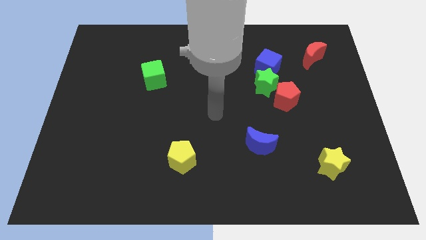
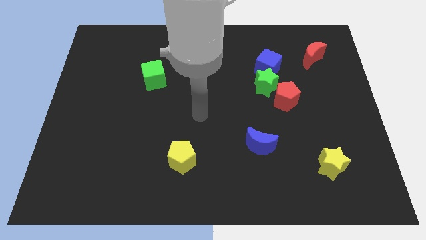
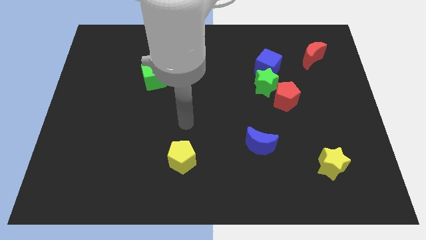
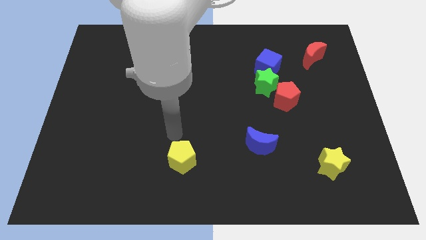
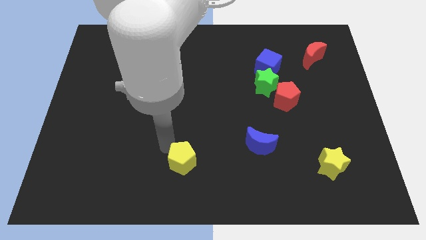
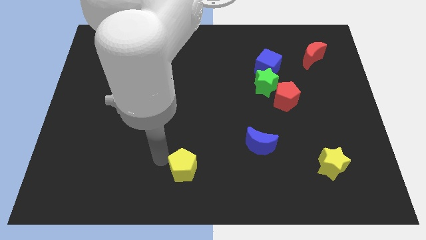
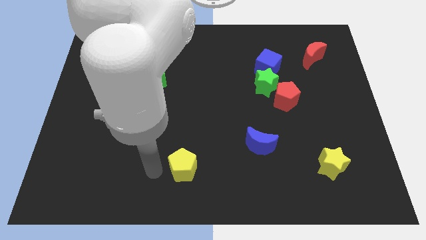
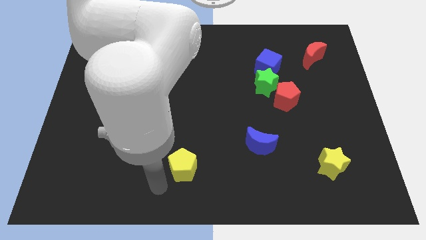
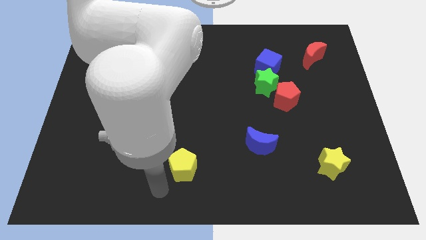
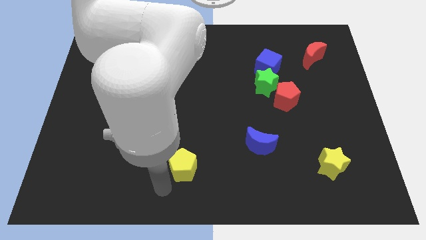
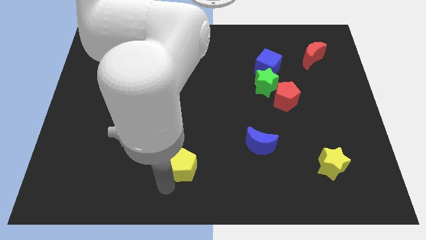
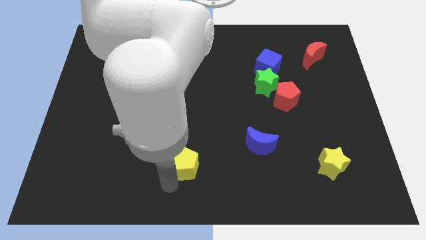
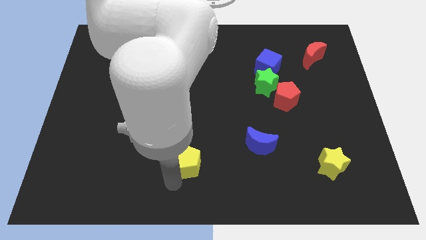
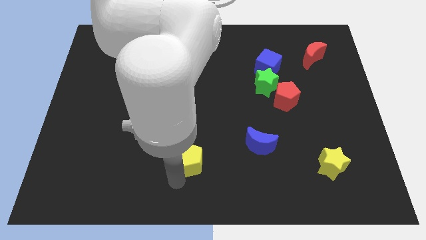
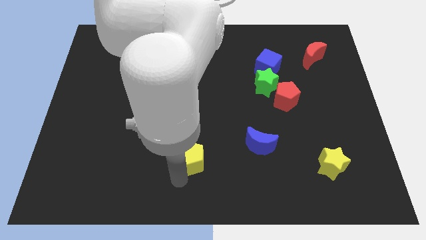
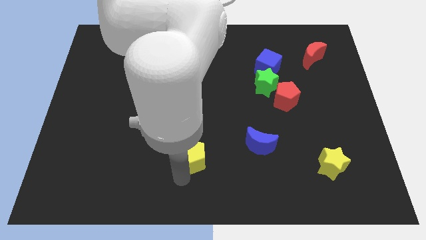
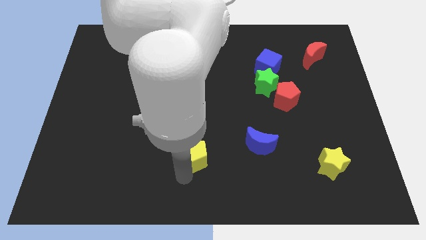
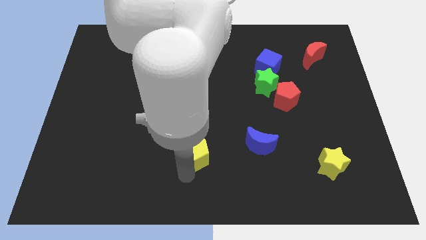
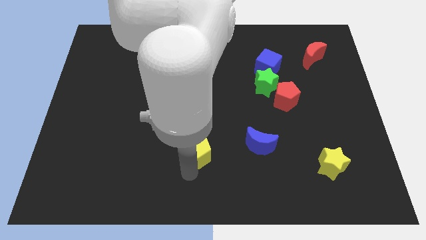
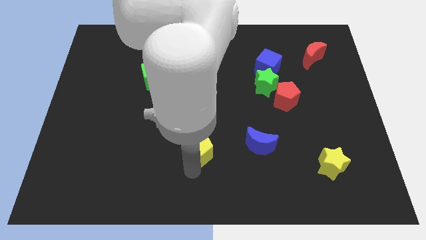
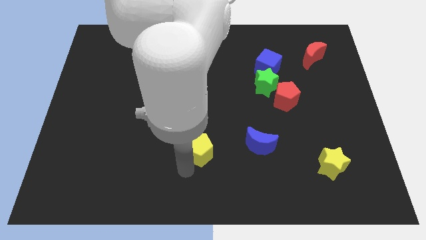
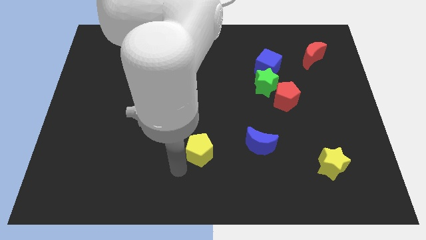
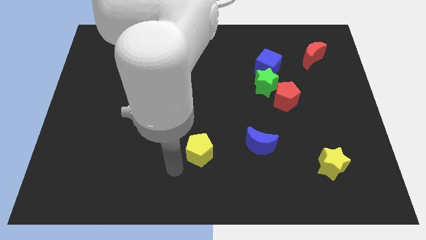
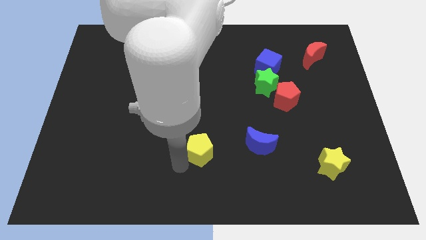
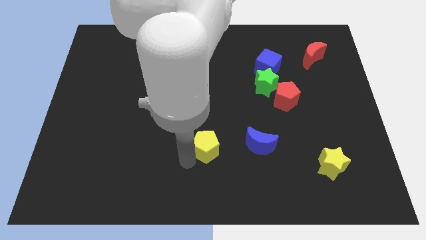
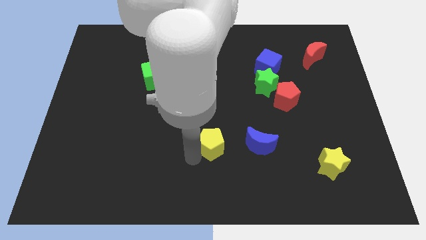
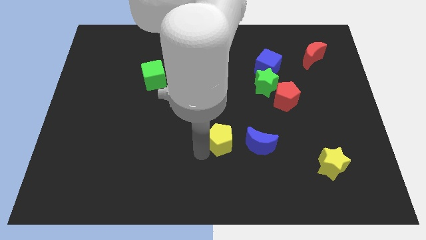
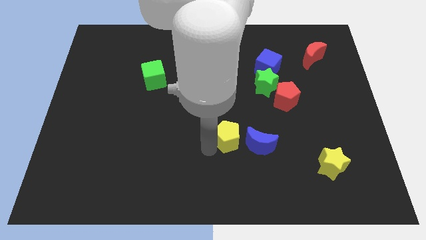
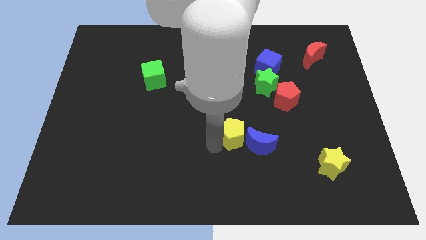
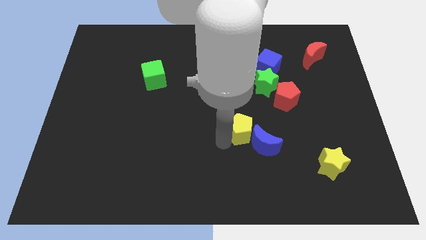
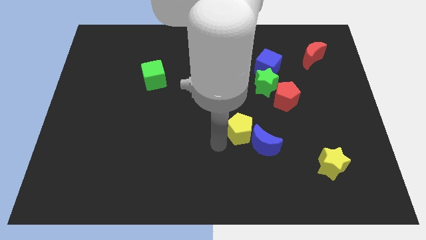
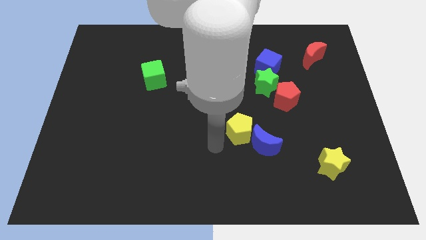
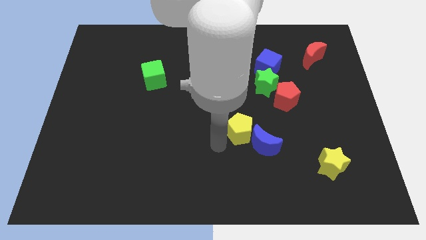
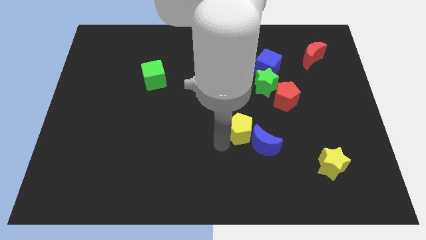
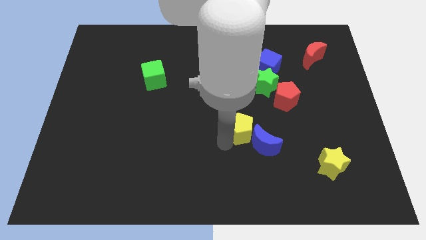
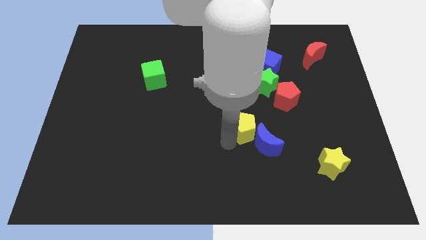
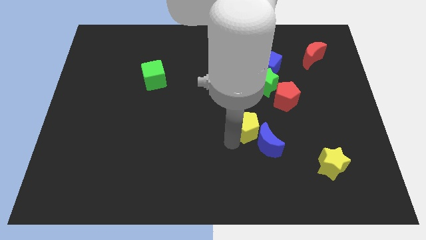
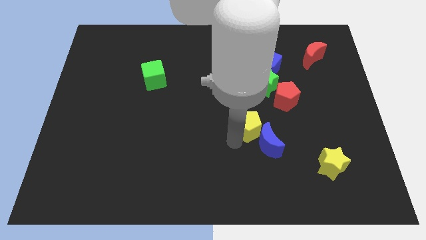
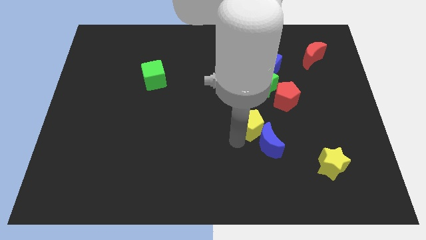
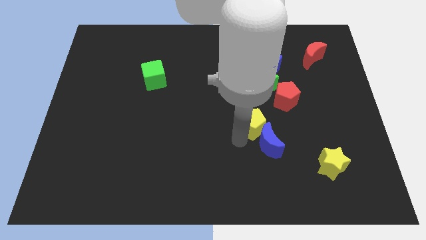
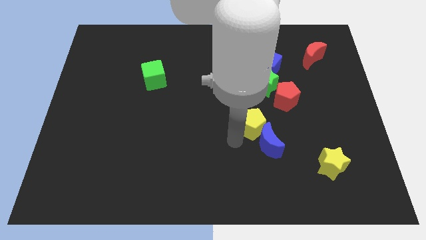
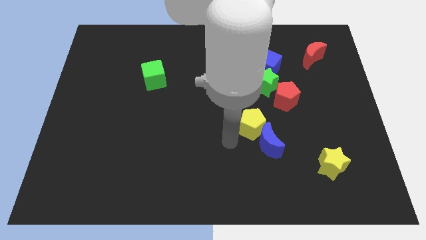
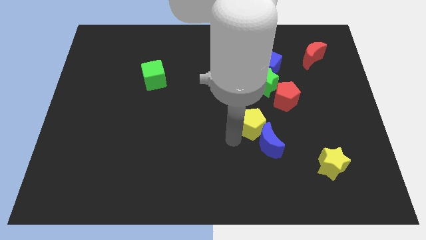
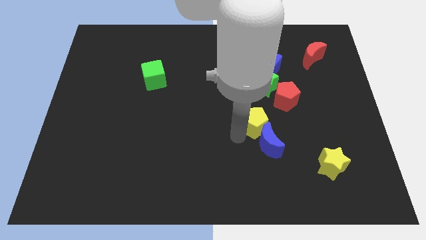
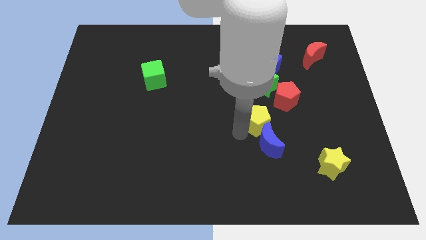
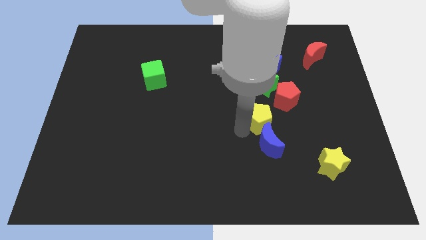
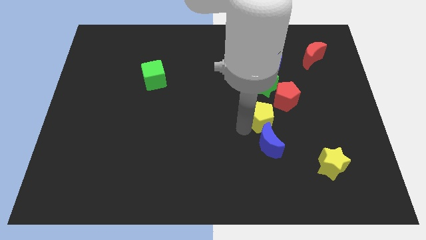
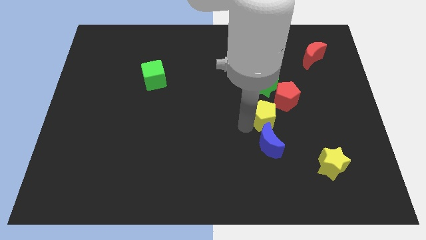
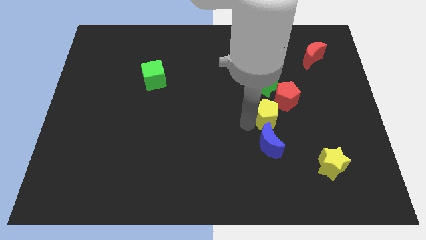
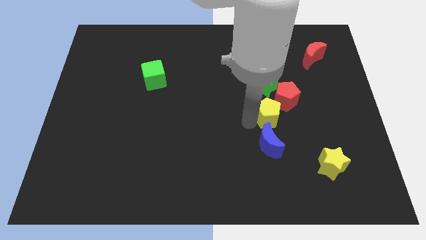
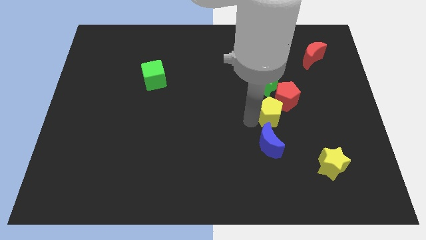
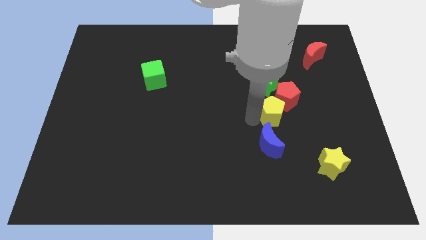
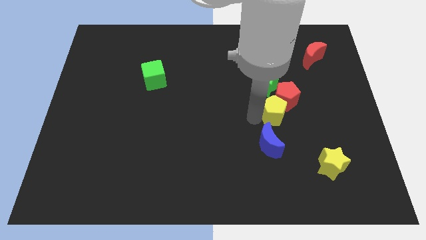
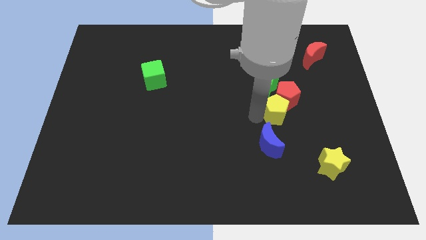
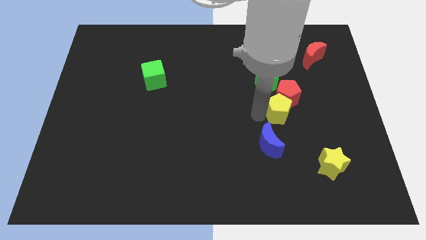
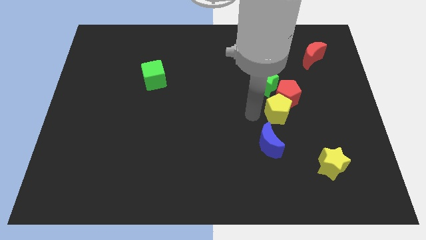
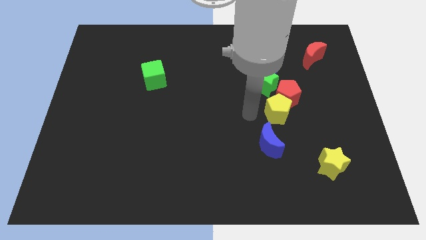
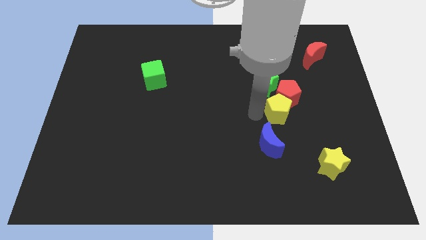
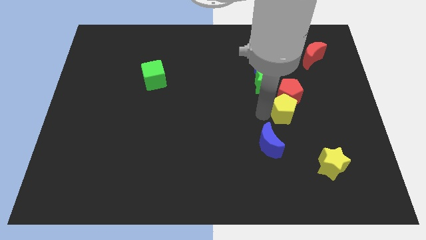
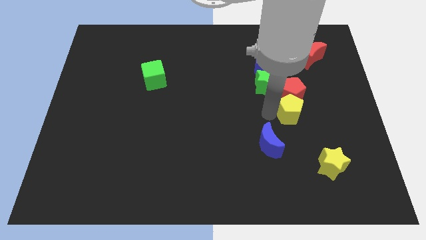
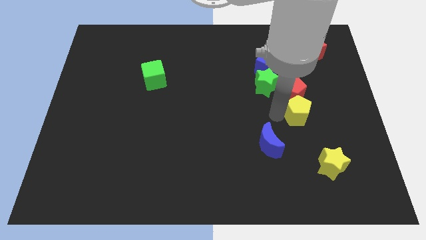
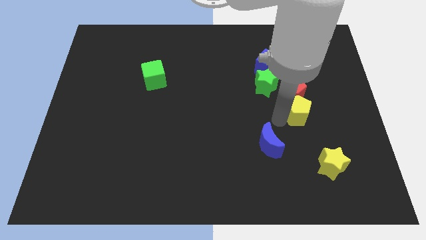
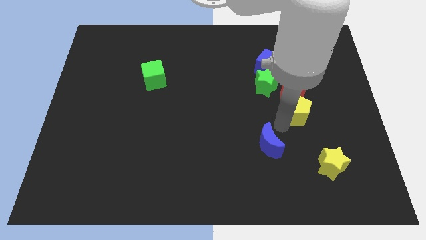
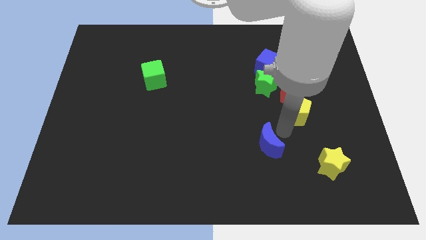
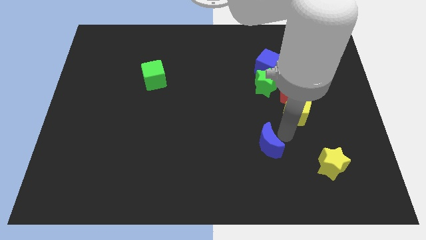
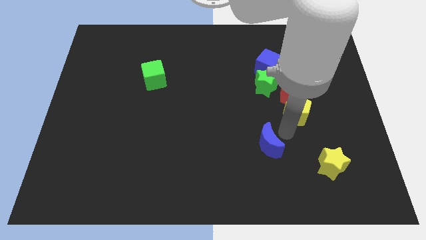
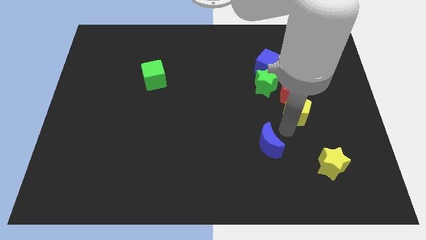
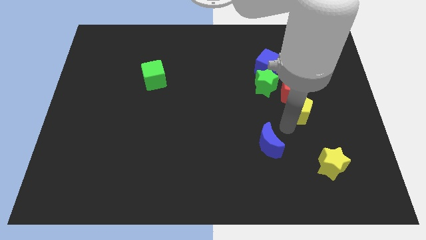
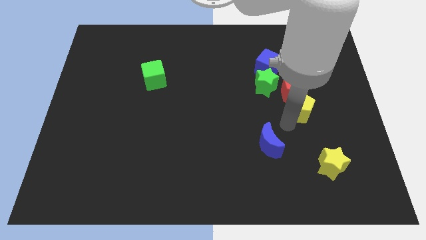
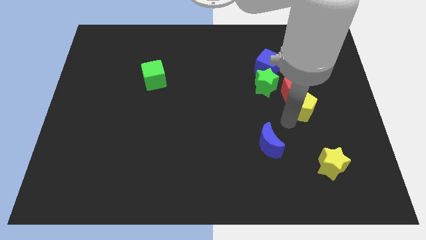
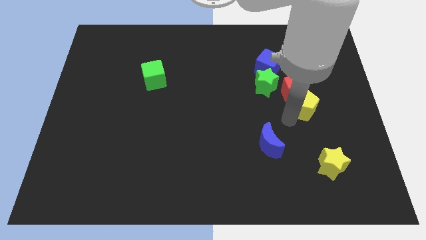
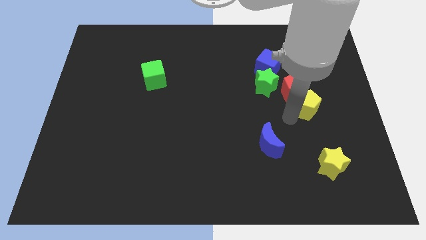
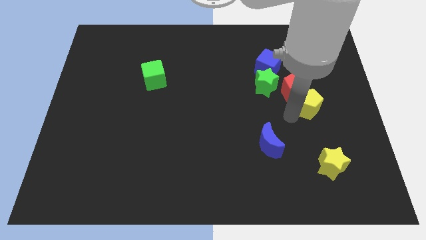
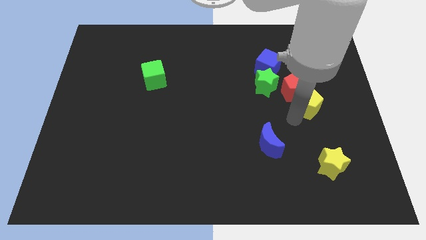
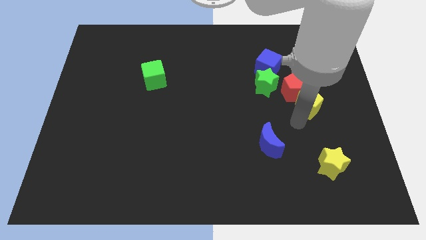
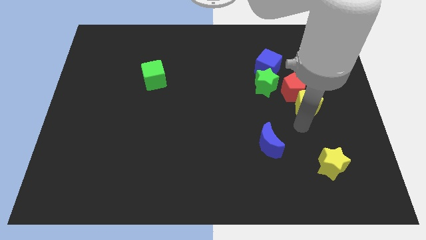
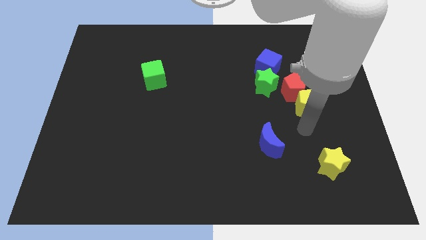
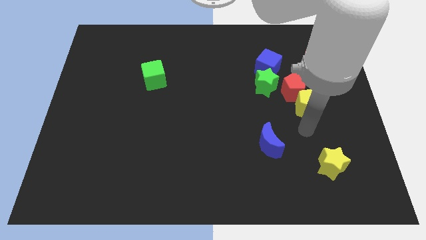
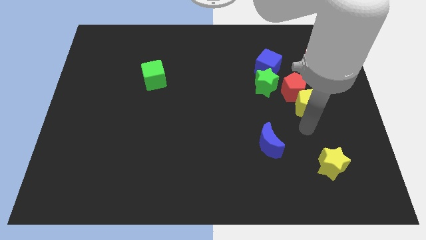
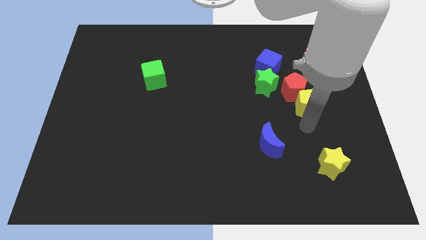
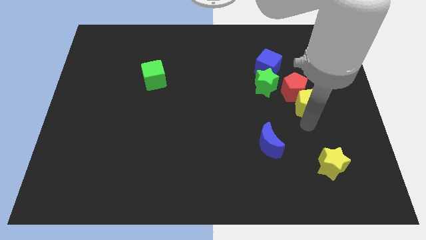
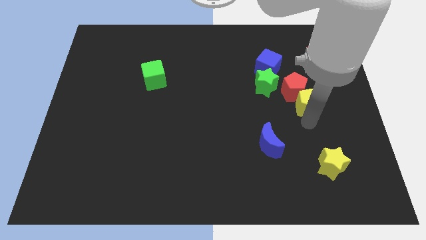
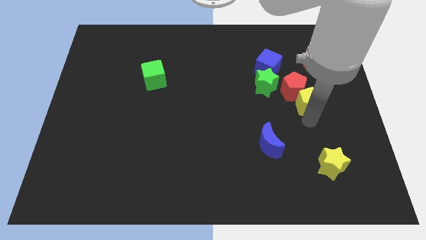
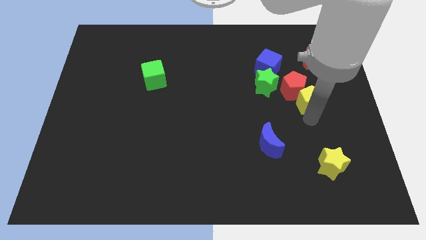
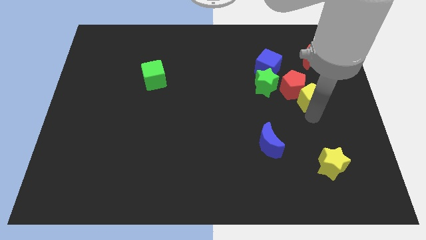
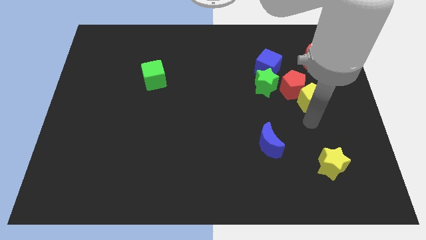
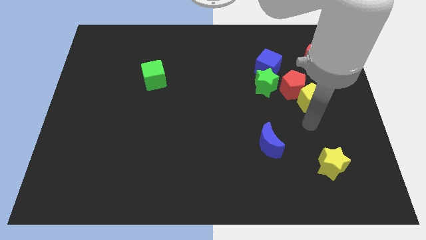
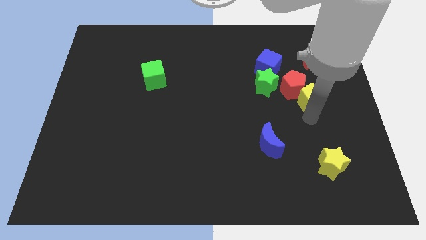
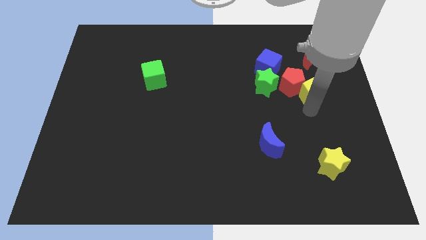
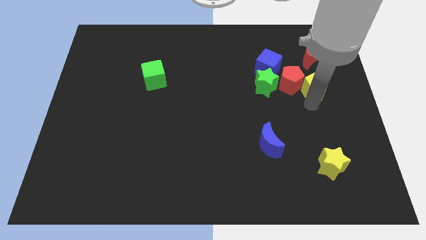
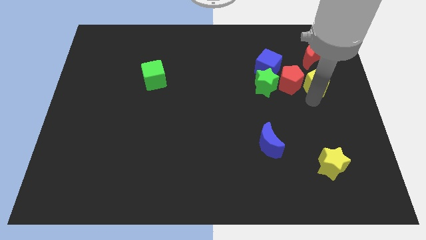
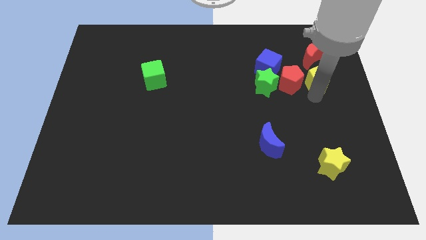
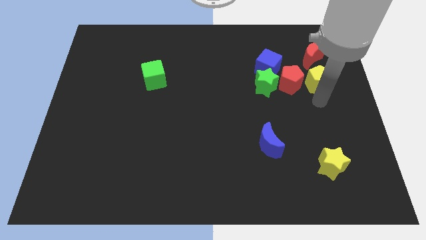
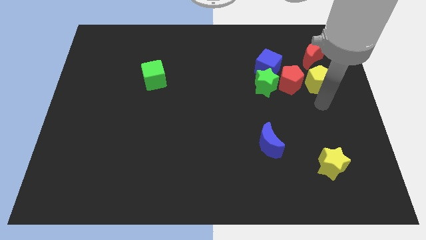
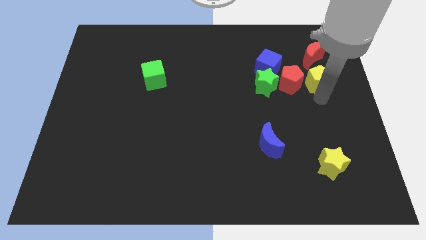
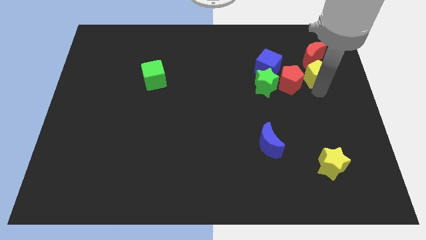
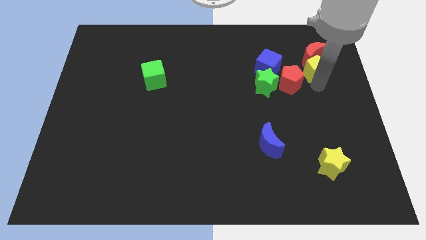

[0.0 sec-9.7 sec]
move the yellow pentagon to the red moon
